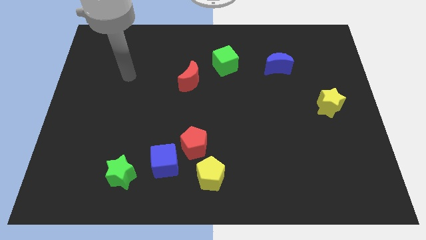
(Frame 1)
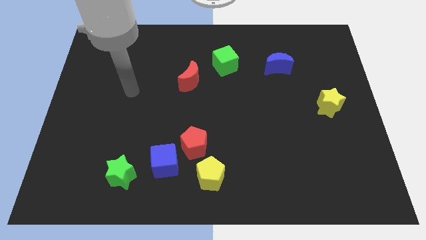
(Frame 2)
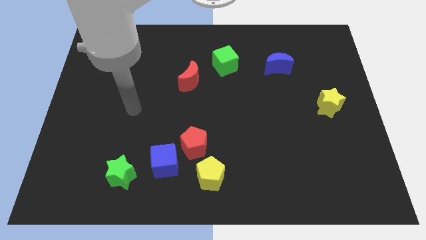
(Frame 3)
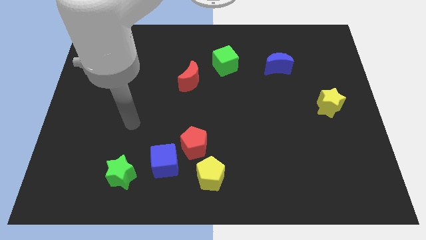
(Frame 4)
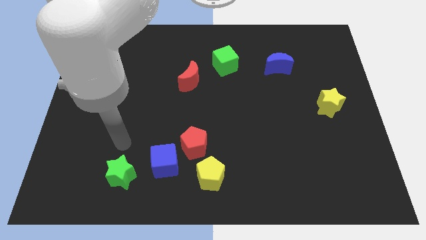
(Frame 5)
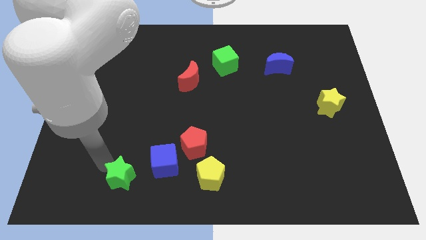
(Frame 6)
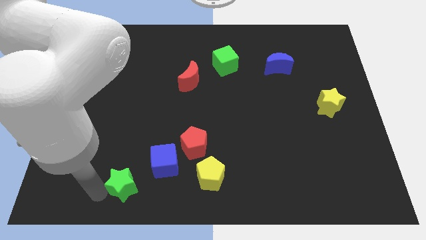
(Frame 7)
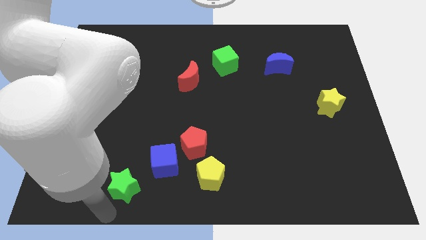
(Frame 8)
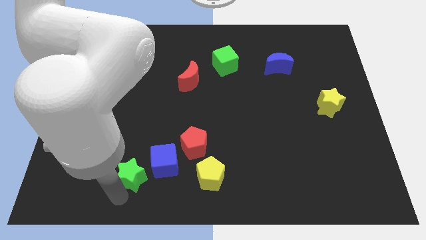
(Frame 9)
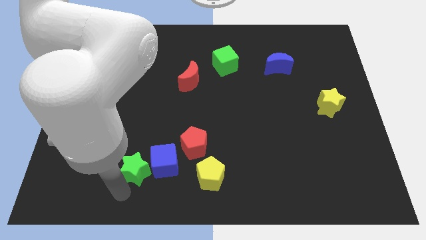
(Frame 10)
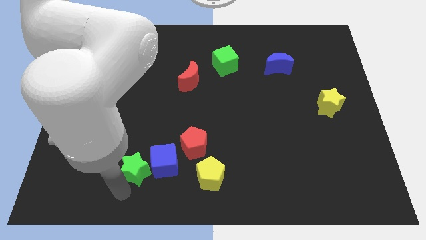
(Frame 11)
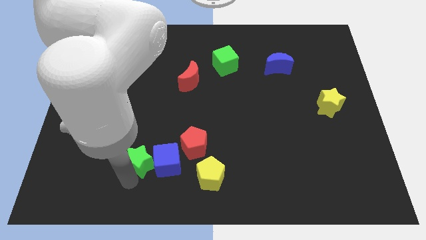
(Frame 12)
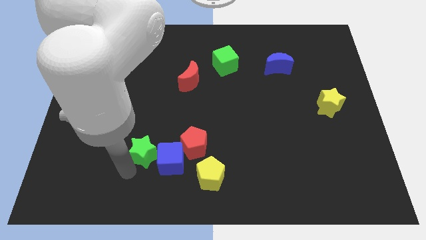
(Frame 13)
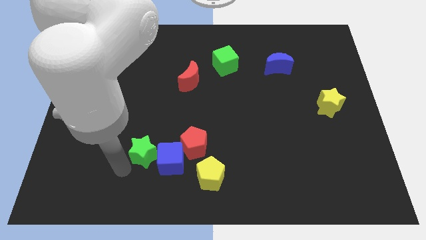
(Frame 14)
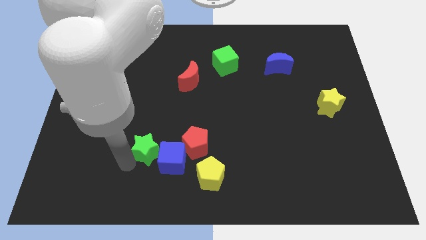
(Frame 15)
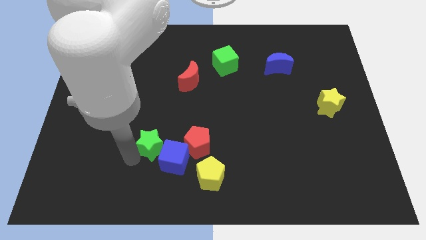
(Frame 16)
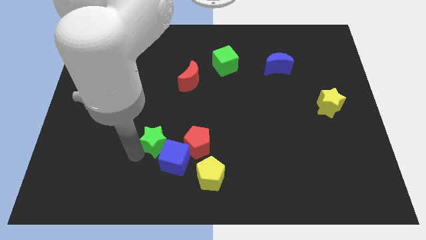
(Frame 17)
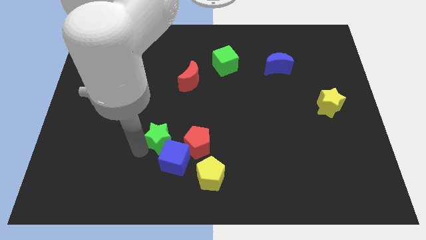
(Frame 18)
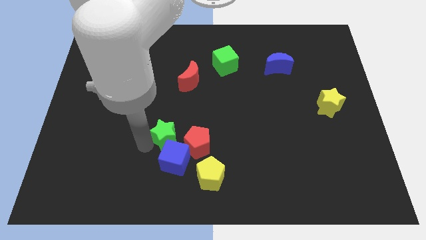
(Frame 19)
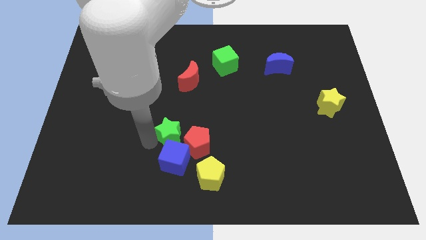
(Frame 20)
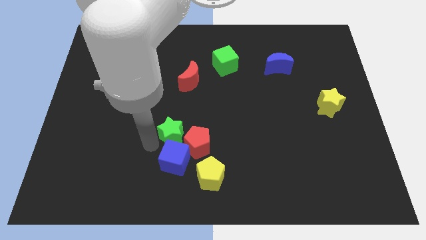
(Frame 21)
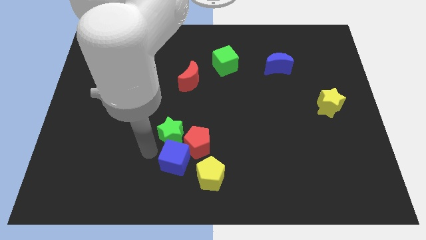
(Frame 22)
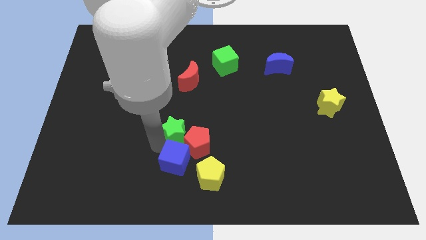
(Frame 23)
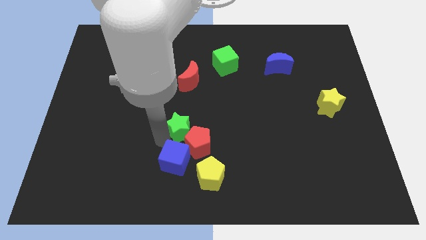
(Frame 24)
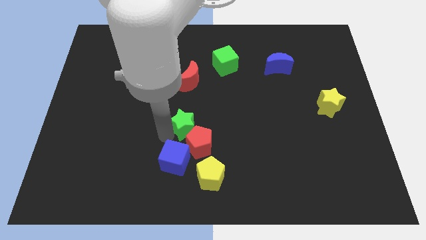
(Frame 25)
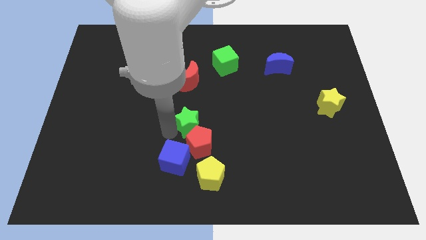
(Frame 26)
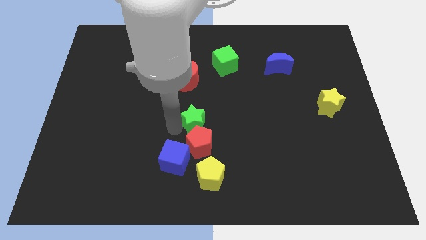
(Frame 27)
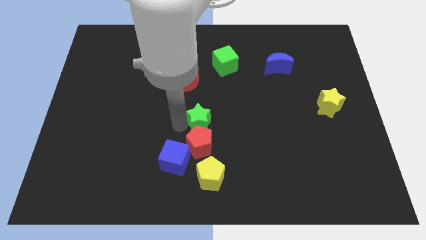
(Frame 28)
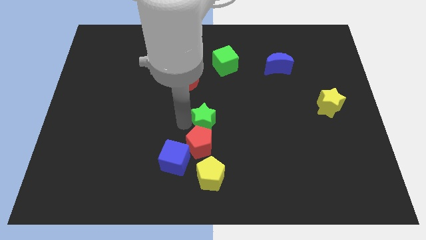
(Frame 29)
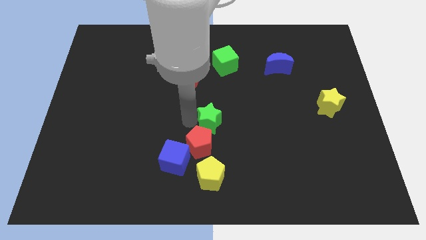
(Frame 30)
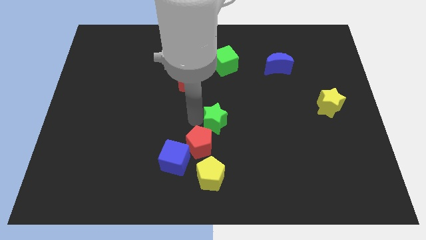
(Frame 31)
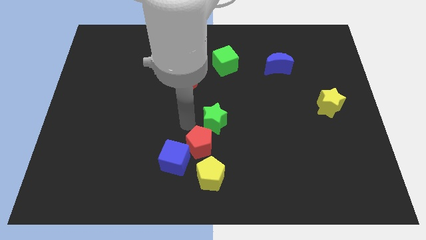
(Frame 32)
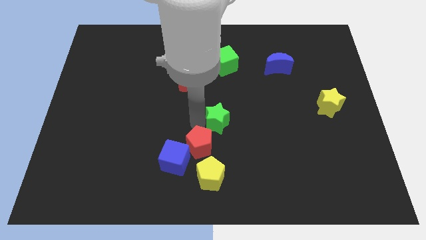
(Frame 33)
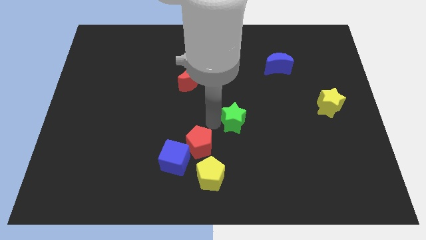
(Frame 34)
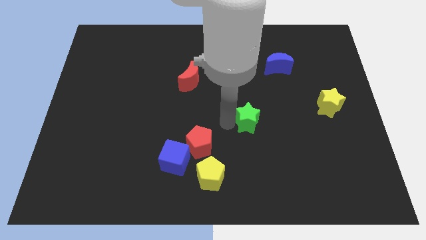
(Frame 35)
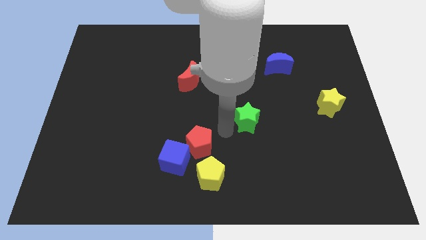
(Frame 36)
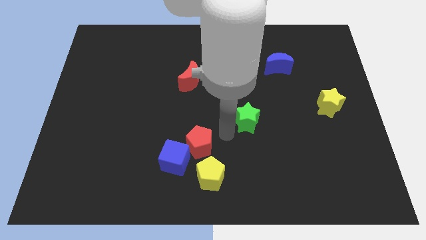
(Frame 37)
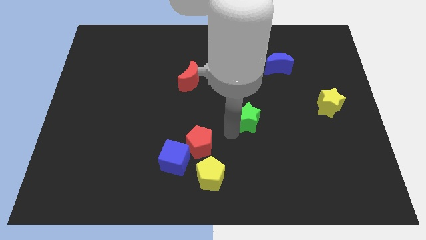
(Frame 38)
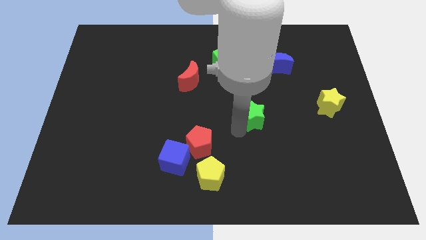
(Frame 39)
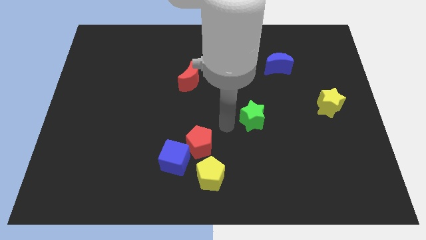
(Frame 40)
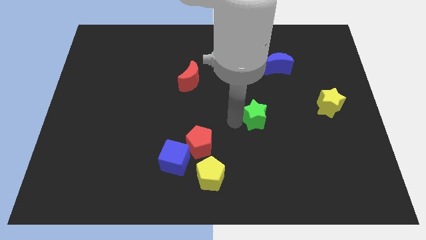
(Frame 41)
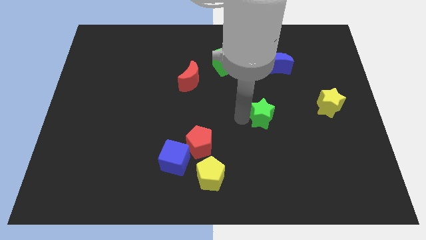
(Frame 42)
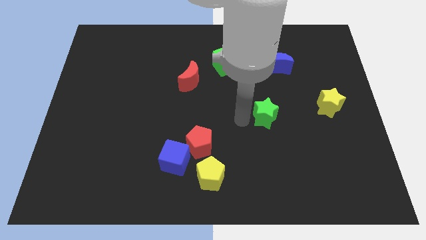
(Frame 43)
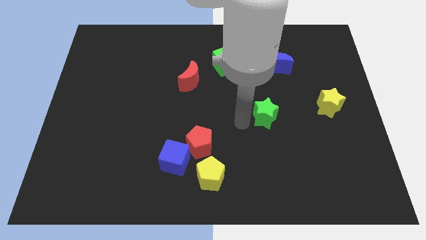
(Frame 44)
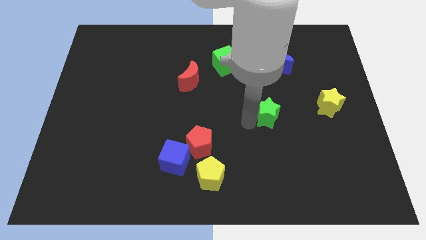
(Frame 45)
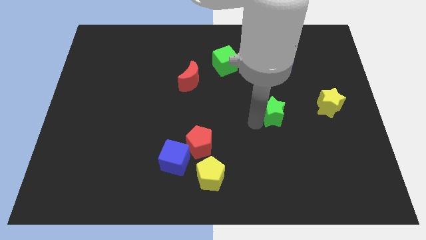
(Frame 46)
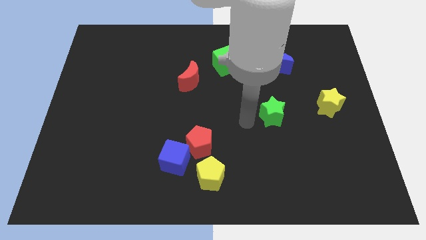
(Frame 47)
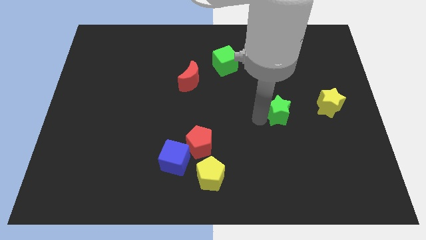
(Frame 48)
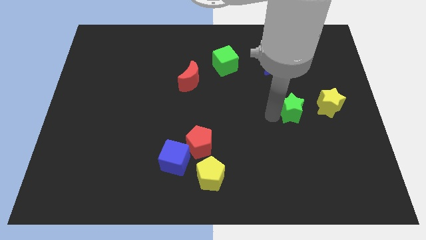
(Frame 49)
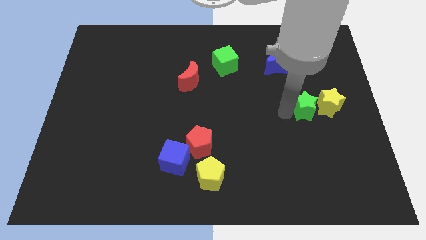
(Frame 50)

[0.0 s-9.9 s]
put the green star towards the yellow star

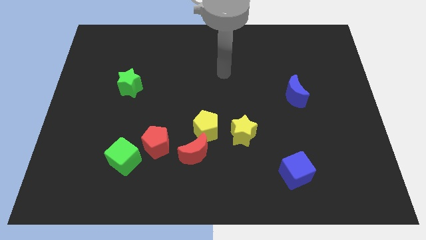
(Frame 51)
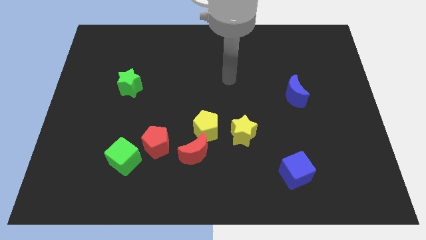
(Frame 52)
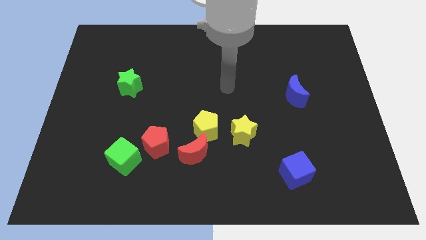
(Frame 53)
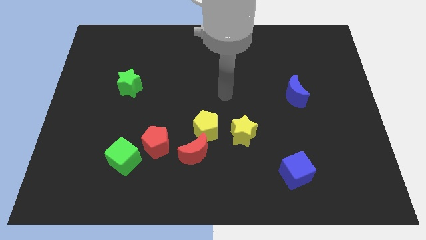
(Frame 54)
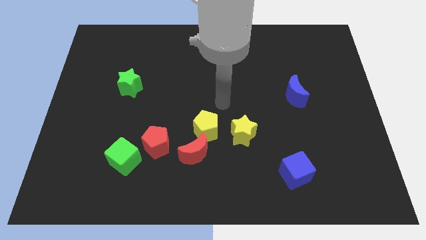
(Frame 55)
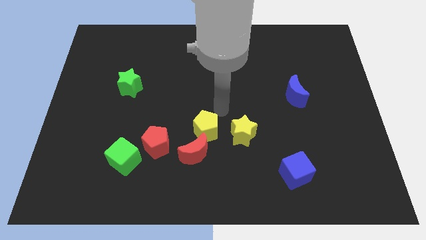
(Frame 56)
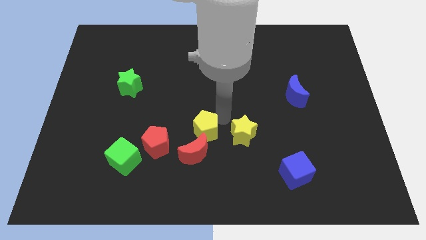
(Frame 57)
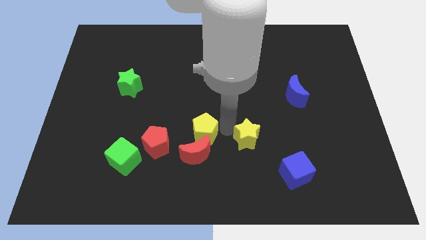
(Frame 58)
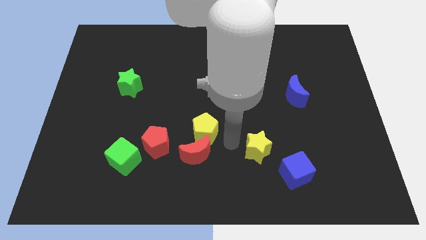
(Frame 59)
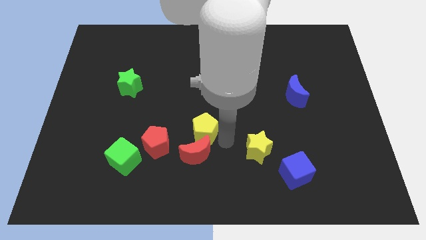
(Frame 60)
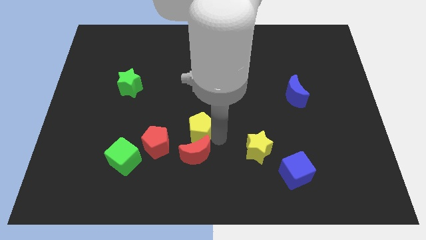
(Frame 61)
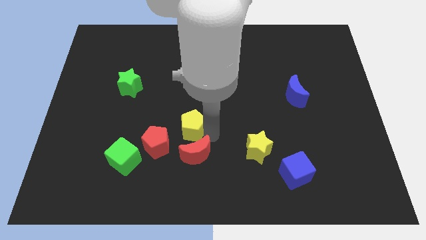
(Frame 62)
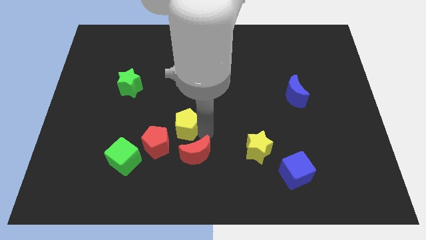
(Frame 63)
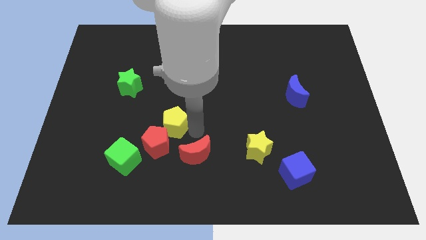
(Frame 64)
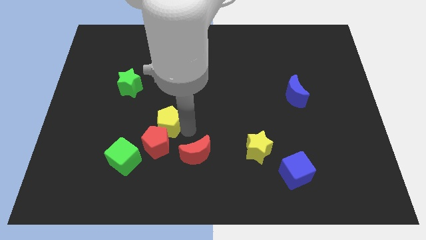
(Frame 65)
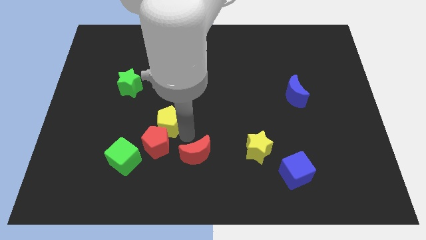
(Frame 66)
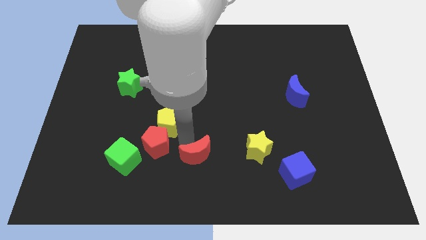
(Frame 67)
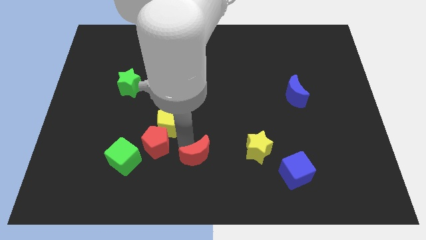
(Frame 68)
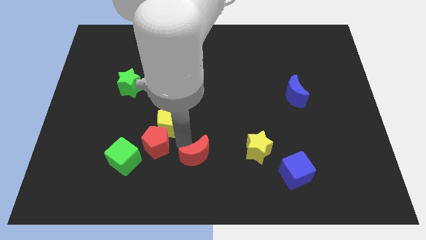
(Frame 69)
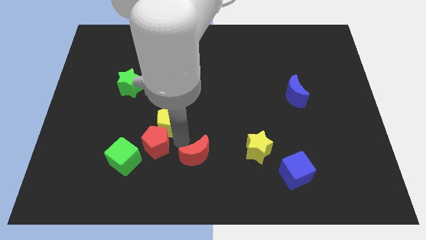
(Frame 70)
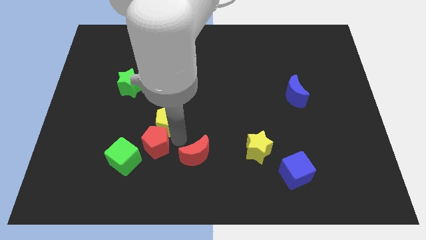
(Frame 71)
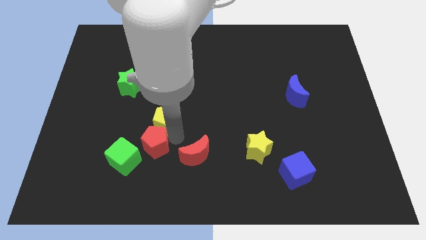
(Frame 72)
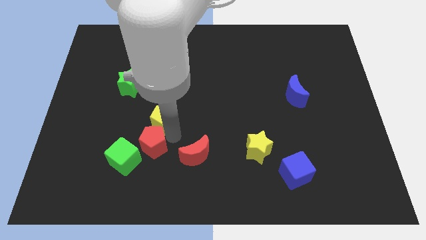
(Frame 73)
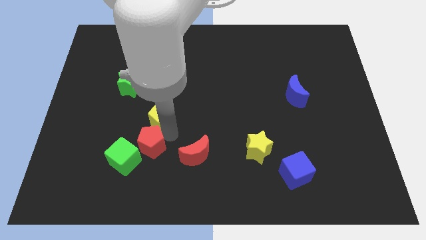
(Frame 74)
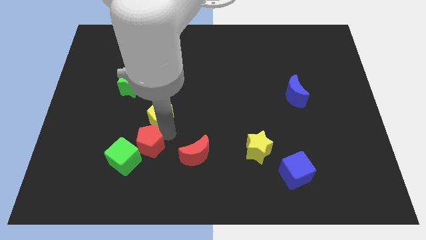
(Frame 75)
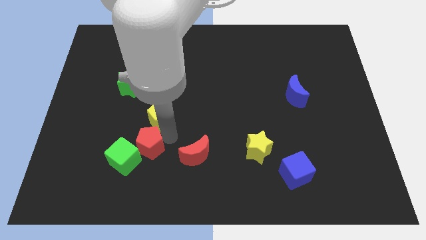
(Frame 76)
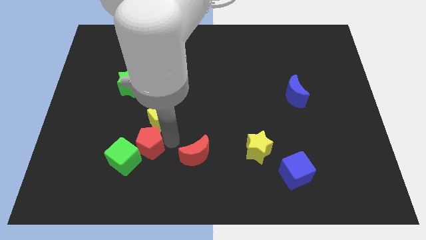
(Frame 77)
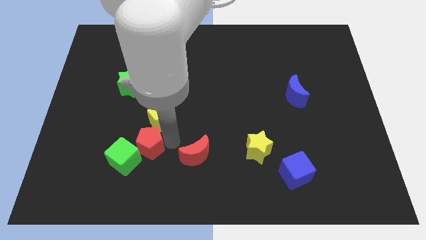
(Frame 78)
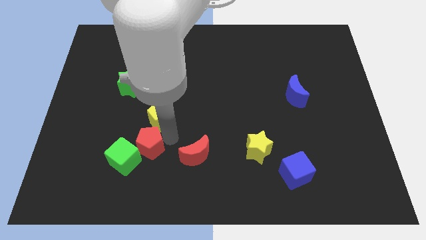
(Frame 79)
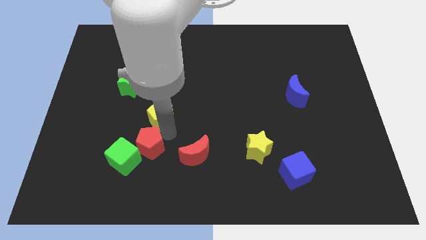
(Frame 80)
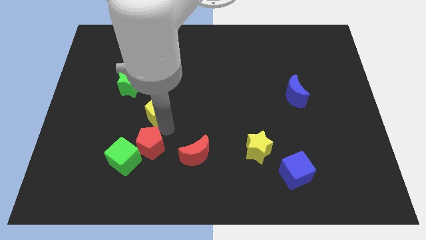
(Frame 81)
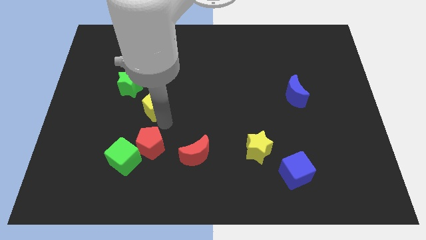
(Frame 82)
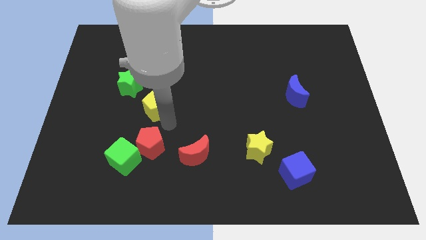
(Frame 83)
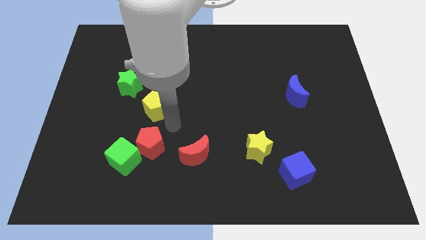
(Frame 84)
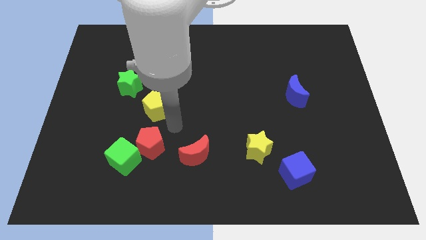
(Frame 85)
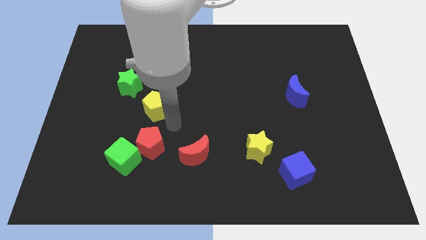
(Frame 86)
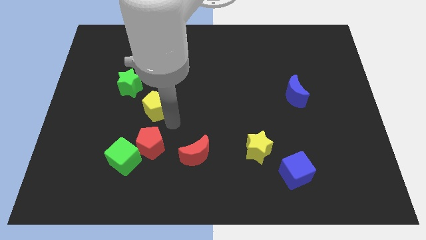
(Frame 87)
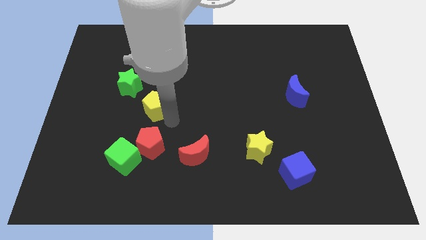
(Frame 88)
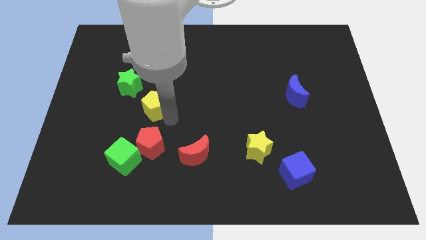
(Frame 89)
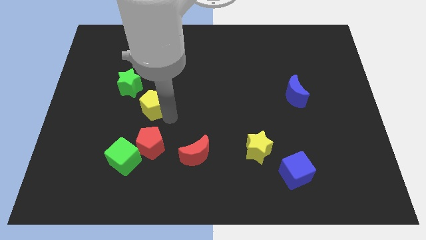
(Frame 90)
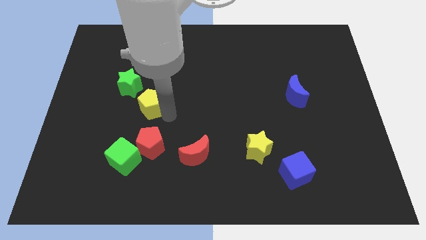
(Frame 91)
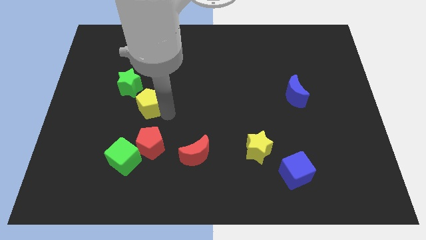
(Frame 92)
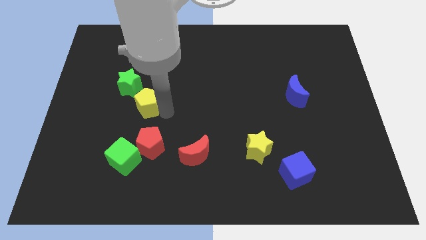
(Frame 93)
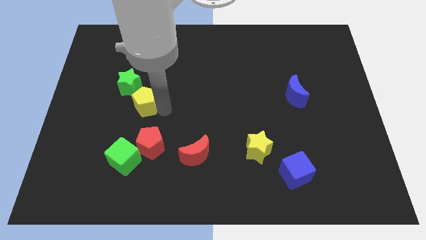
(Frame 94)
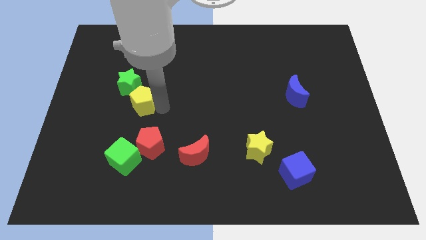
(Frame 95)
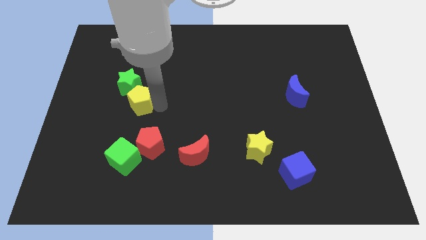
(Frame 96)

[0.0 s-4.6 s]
push the yellow pentagon to the green star
